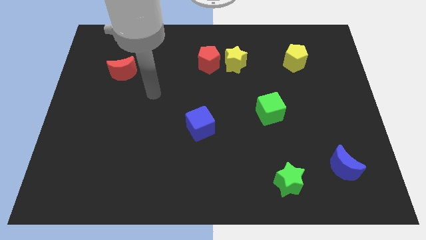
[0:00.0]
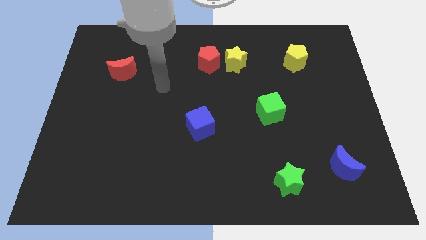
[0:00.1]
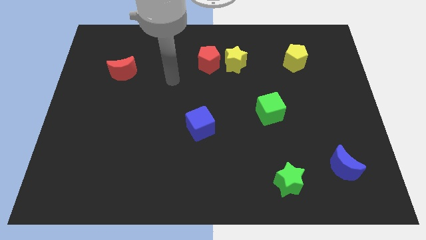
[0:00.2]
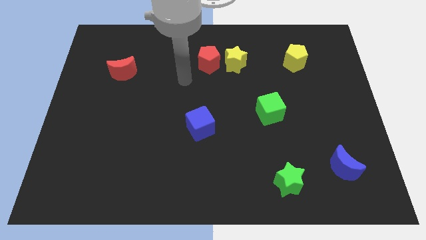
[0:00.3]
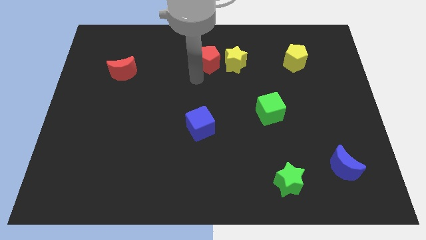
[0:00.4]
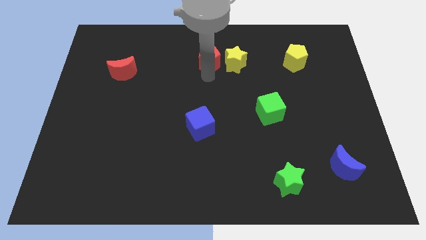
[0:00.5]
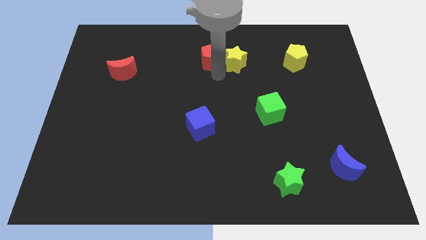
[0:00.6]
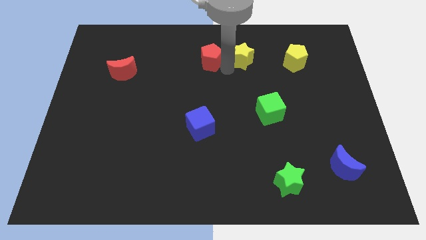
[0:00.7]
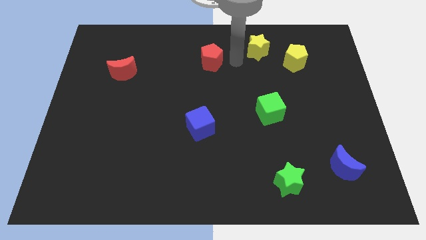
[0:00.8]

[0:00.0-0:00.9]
pull the red pentagon apart from the yellow star

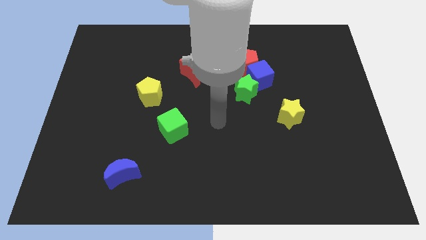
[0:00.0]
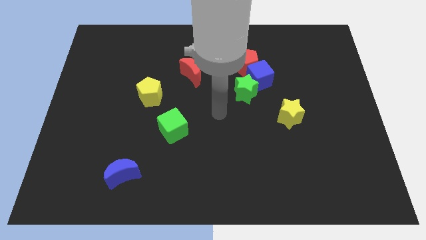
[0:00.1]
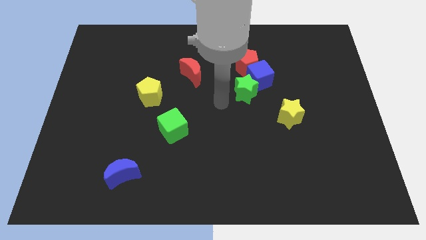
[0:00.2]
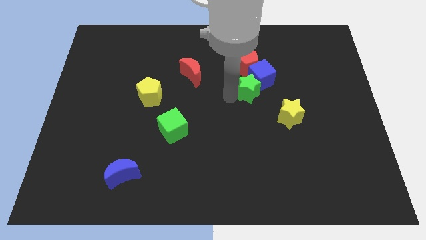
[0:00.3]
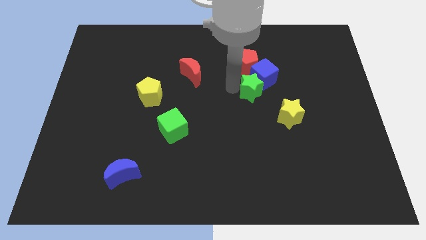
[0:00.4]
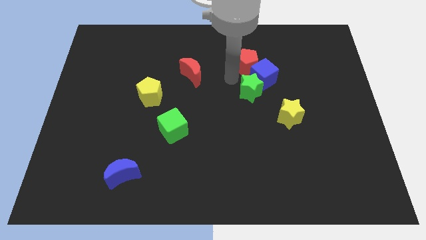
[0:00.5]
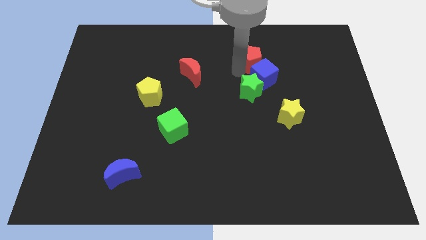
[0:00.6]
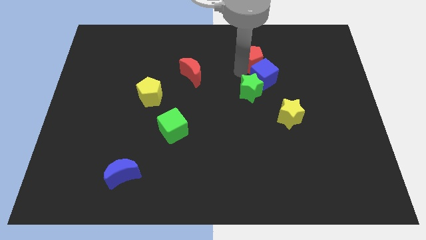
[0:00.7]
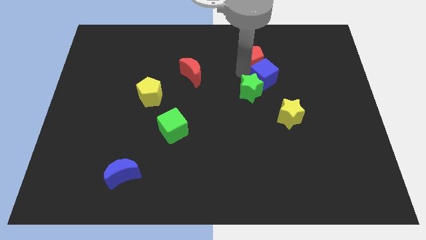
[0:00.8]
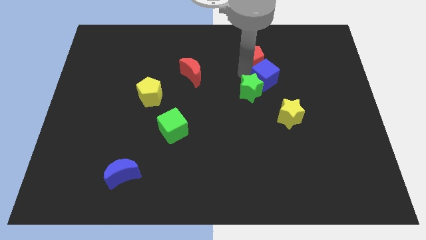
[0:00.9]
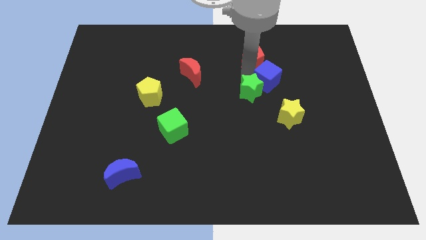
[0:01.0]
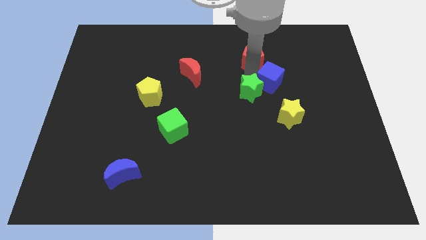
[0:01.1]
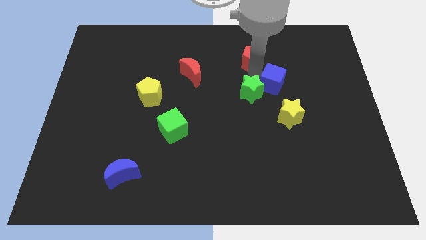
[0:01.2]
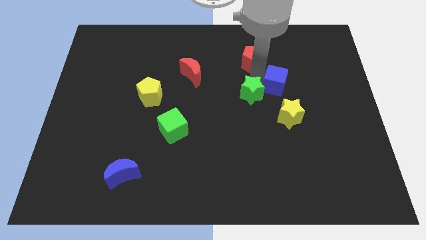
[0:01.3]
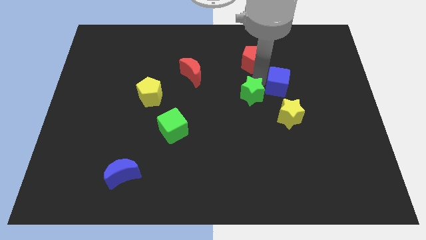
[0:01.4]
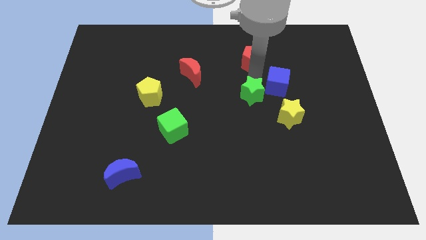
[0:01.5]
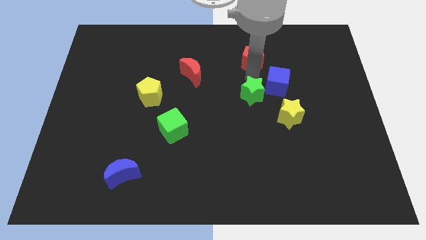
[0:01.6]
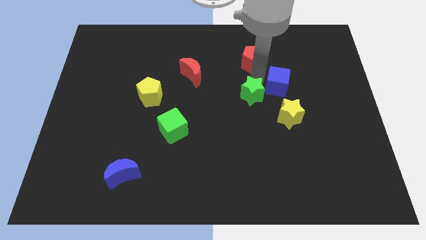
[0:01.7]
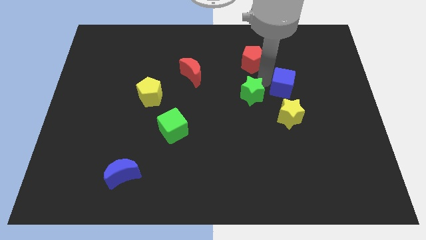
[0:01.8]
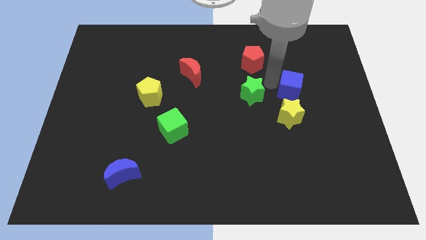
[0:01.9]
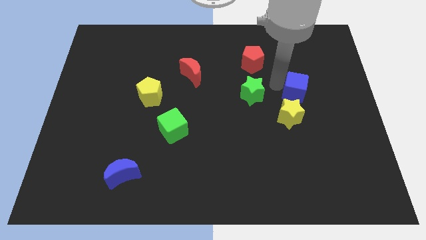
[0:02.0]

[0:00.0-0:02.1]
separate the blue cube from the red pentagon and green star

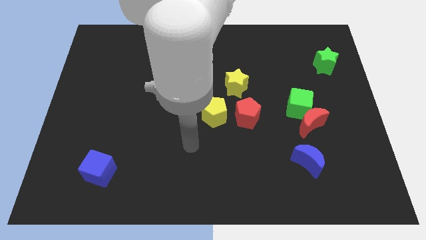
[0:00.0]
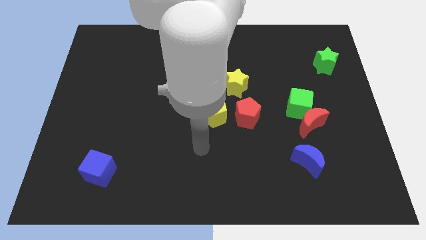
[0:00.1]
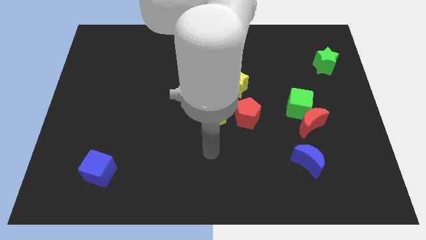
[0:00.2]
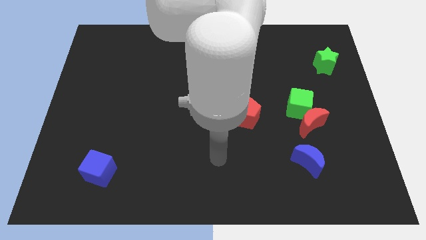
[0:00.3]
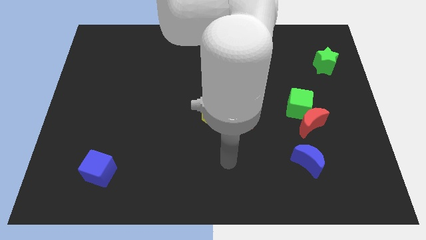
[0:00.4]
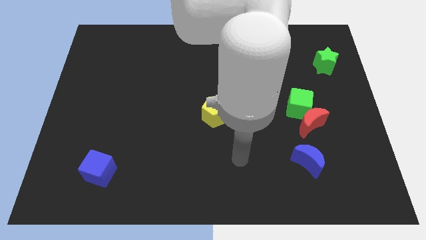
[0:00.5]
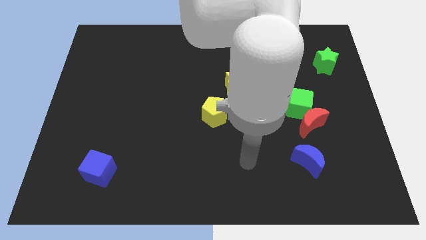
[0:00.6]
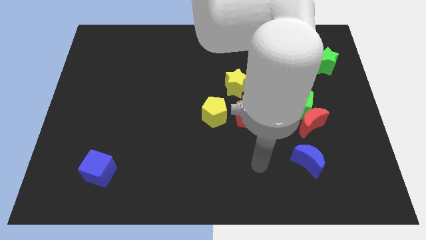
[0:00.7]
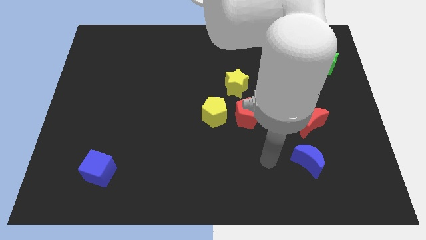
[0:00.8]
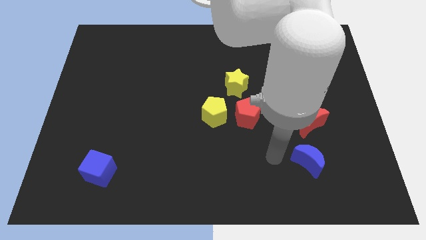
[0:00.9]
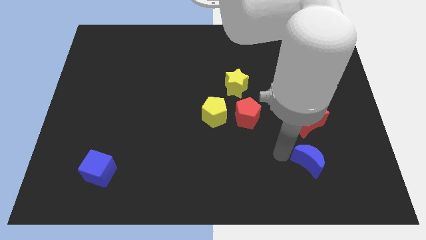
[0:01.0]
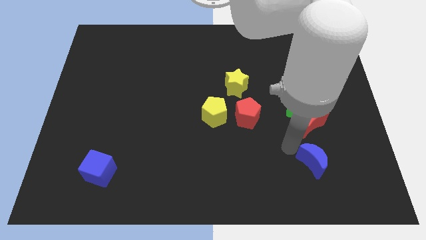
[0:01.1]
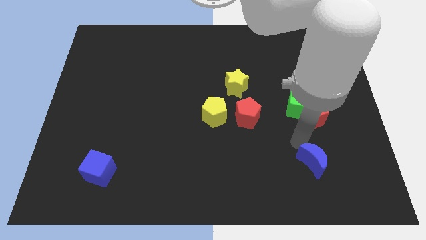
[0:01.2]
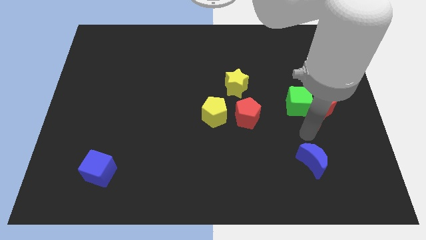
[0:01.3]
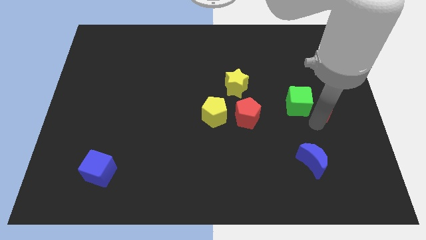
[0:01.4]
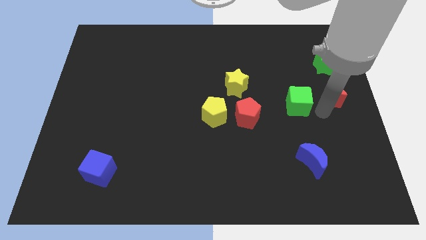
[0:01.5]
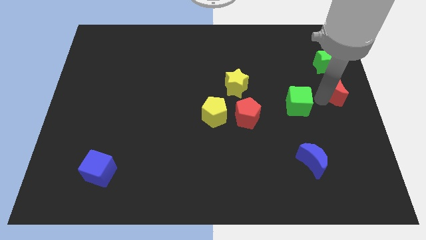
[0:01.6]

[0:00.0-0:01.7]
move the green cube away from the red moon

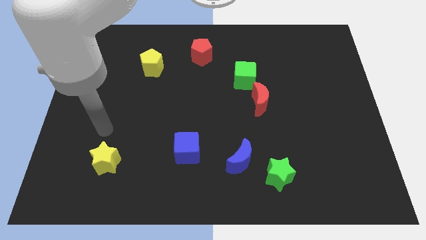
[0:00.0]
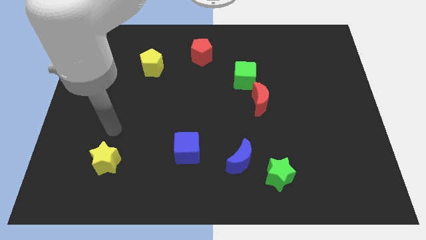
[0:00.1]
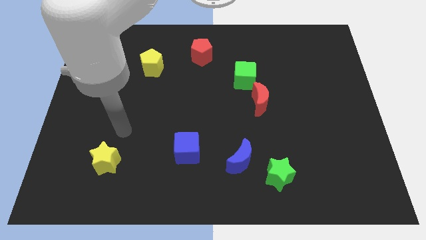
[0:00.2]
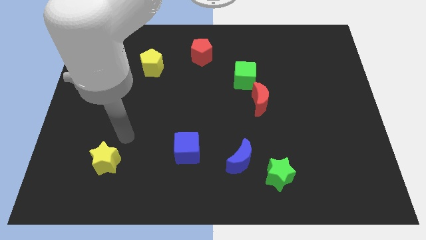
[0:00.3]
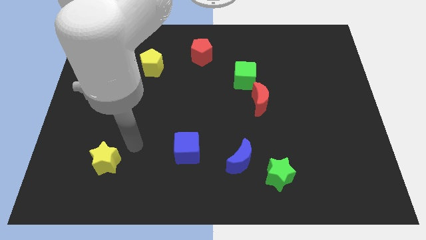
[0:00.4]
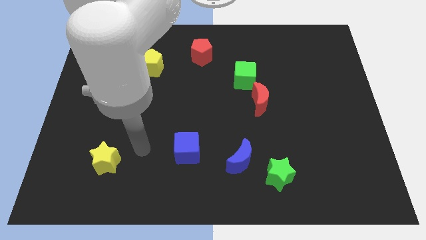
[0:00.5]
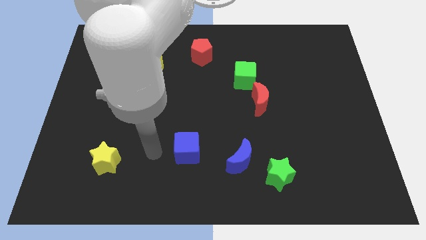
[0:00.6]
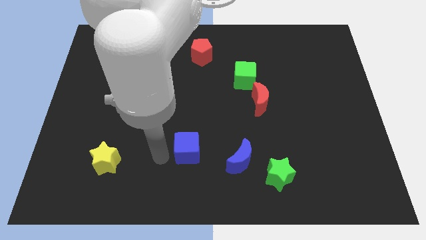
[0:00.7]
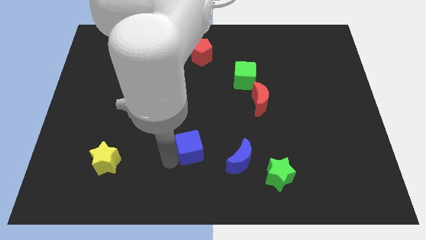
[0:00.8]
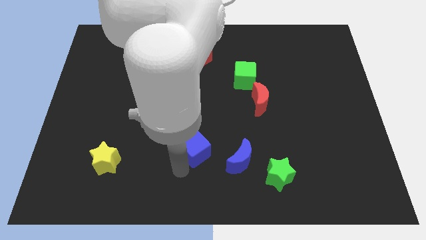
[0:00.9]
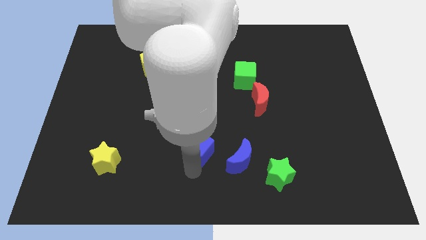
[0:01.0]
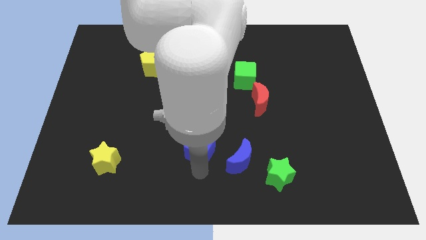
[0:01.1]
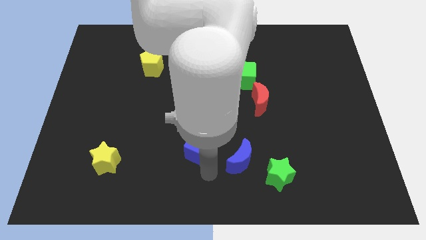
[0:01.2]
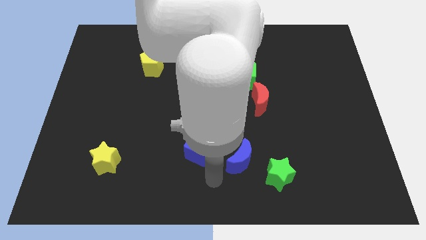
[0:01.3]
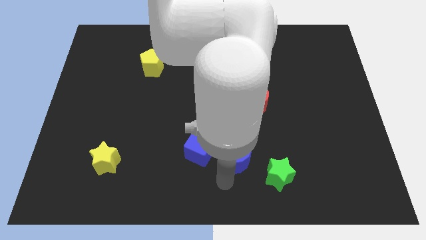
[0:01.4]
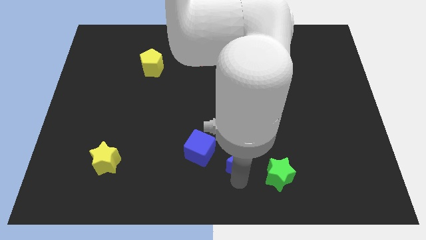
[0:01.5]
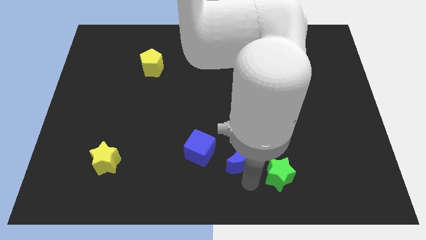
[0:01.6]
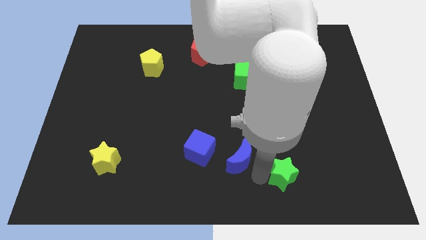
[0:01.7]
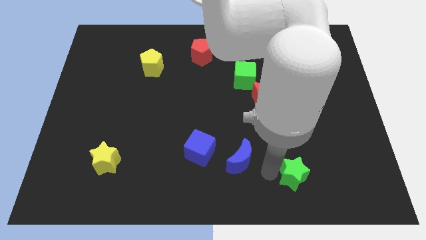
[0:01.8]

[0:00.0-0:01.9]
pull the blue moon apart from the green star

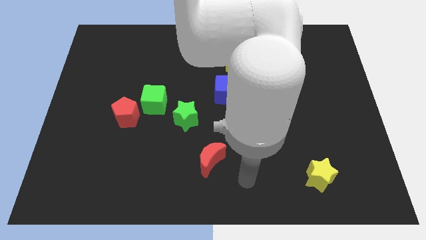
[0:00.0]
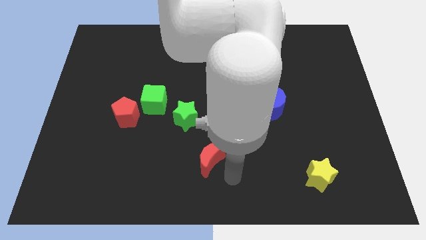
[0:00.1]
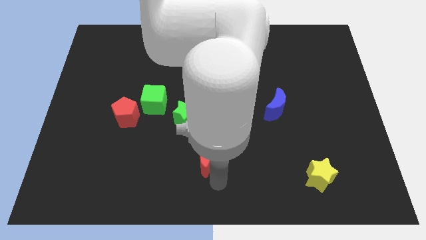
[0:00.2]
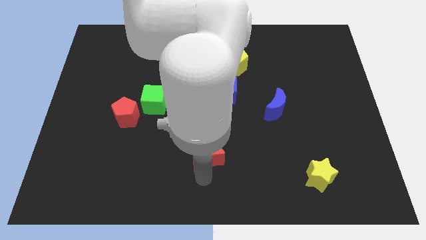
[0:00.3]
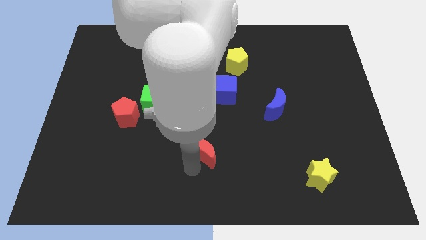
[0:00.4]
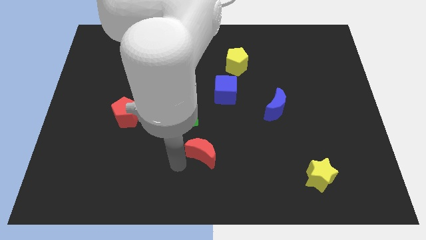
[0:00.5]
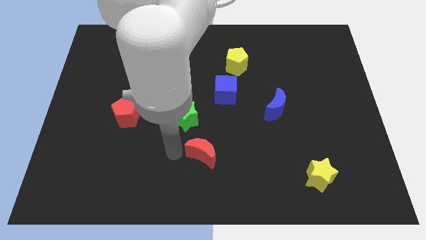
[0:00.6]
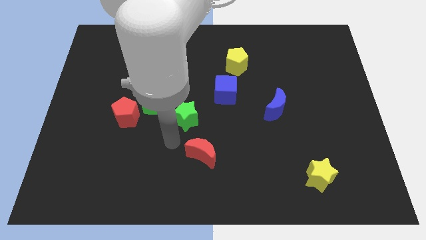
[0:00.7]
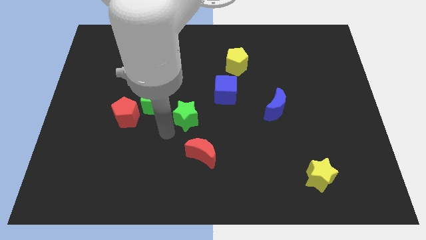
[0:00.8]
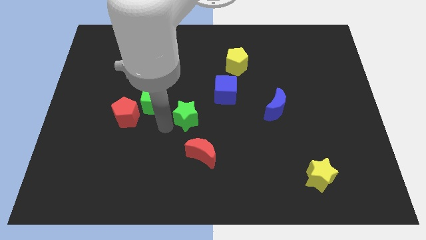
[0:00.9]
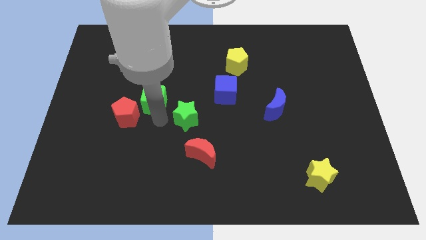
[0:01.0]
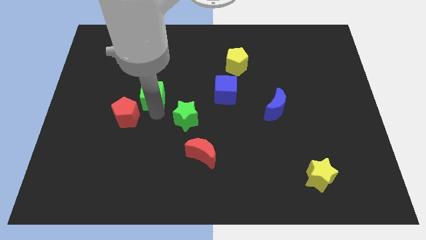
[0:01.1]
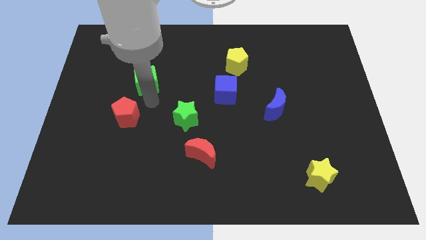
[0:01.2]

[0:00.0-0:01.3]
separate the red pentagon from the green cube

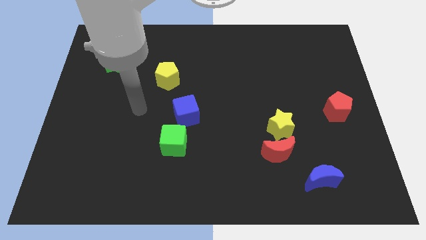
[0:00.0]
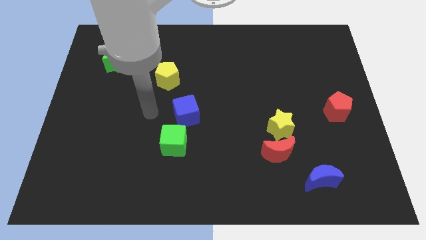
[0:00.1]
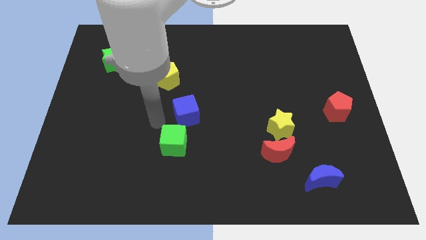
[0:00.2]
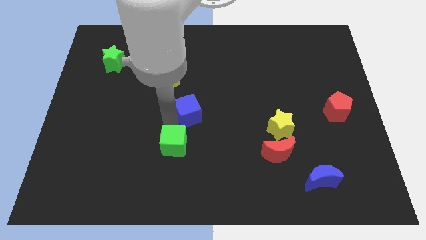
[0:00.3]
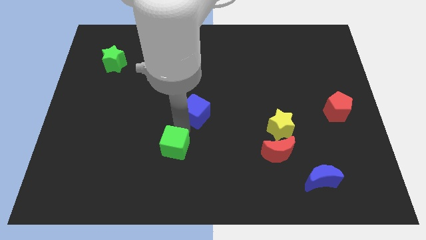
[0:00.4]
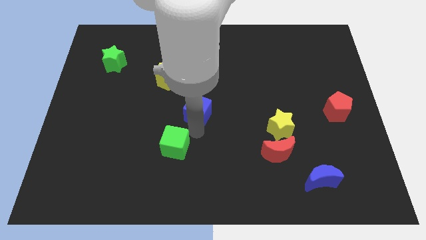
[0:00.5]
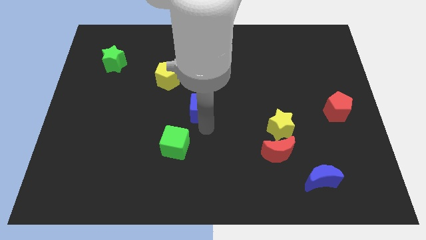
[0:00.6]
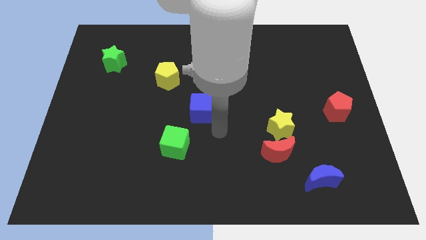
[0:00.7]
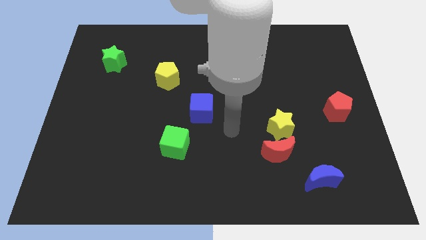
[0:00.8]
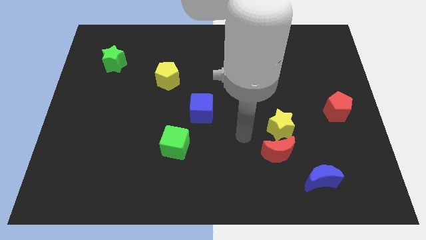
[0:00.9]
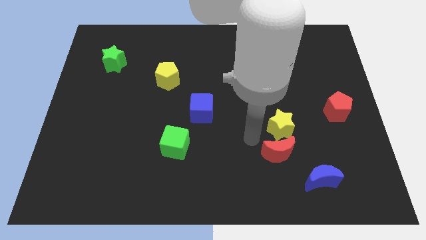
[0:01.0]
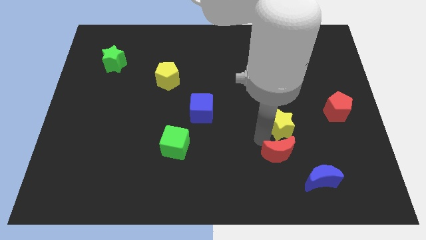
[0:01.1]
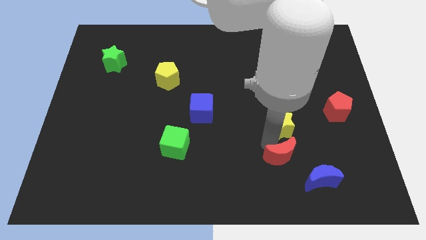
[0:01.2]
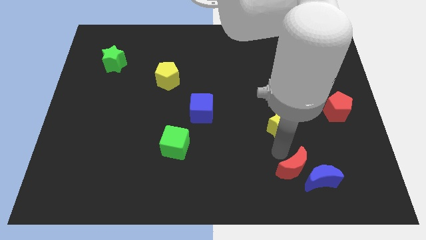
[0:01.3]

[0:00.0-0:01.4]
move the yellow star away from the red moon
